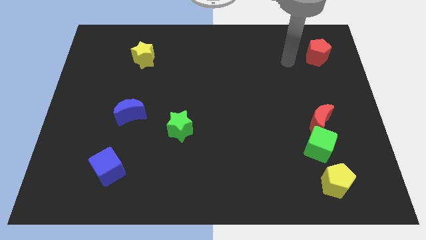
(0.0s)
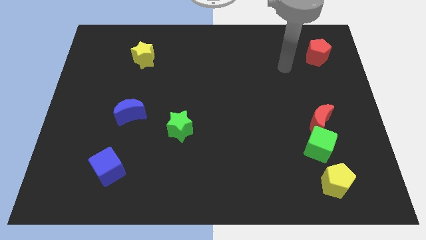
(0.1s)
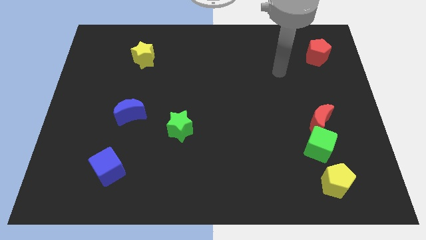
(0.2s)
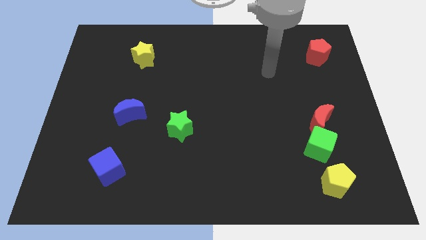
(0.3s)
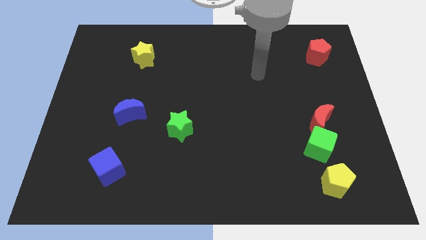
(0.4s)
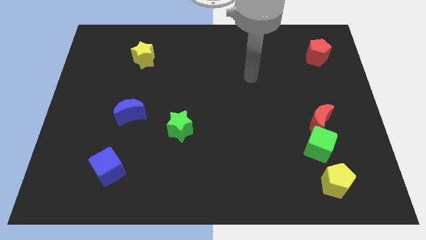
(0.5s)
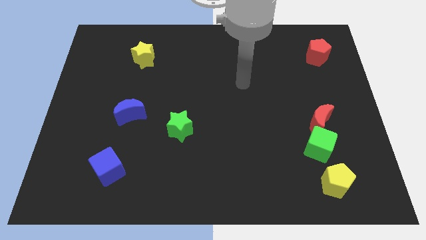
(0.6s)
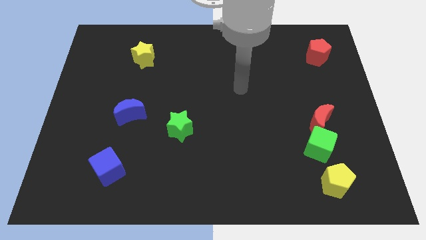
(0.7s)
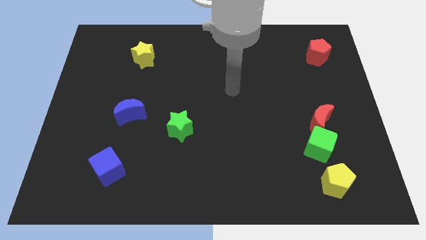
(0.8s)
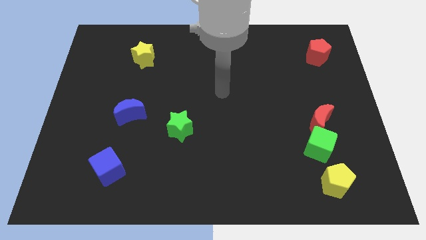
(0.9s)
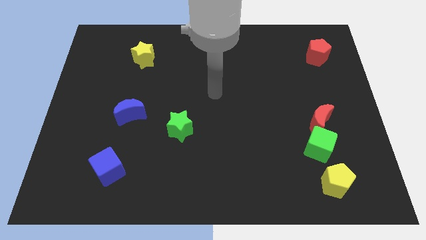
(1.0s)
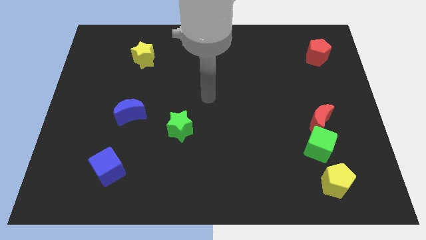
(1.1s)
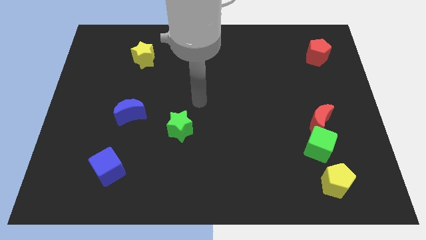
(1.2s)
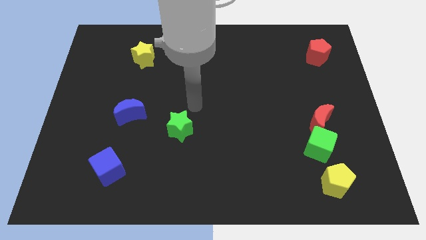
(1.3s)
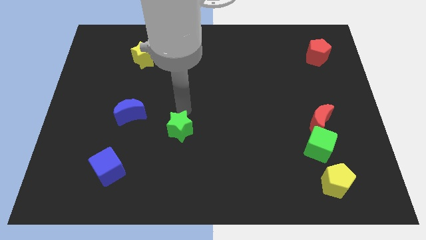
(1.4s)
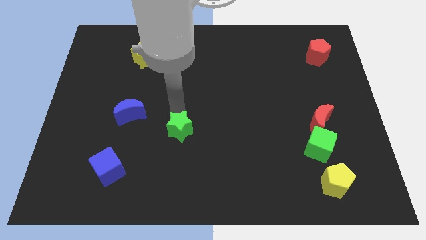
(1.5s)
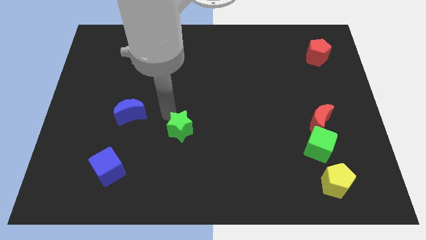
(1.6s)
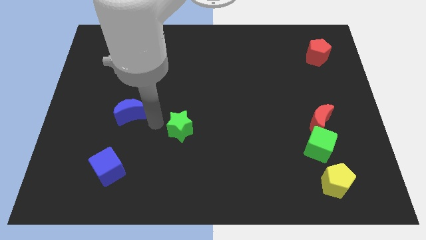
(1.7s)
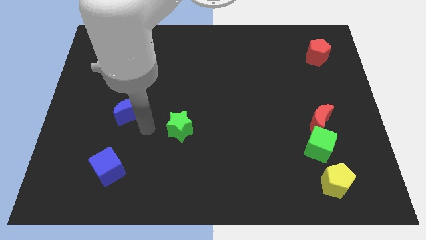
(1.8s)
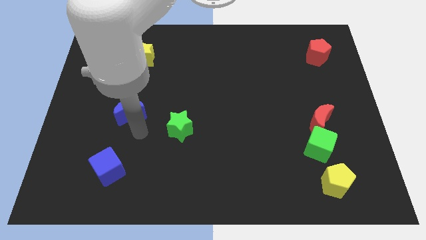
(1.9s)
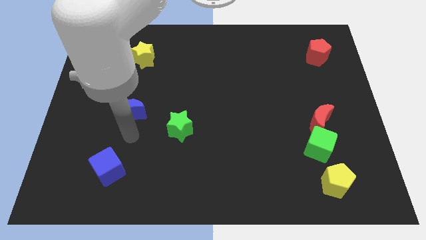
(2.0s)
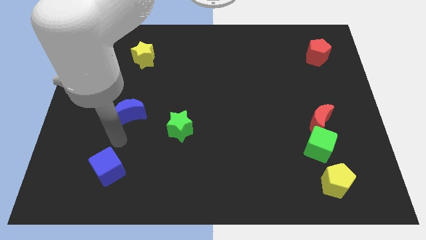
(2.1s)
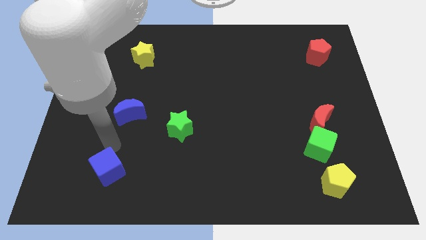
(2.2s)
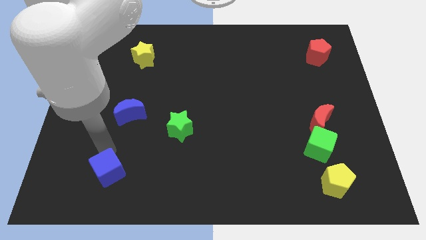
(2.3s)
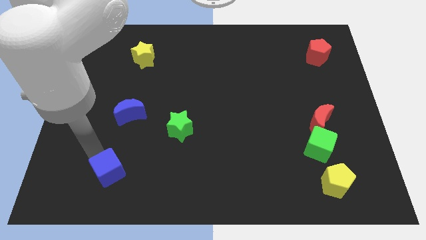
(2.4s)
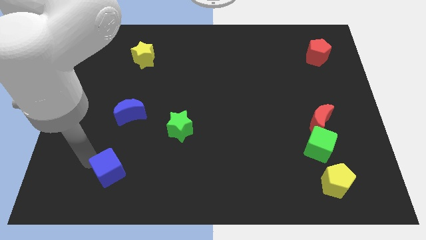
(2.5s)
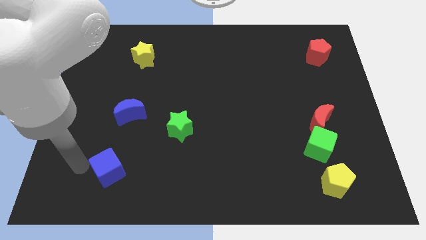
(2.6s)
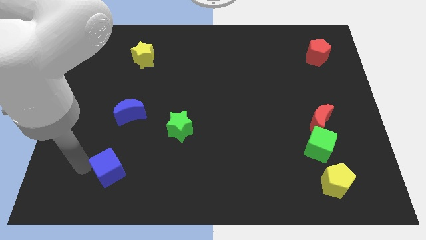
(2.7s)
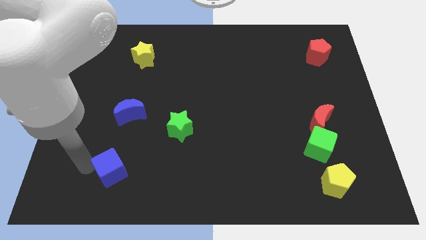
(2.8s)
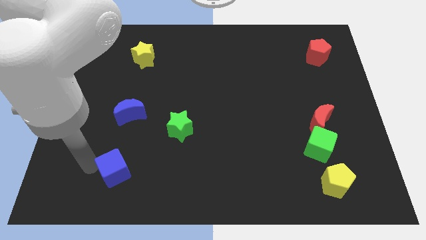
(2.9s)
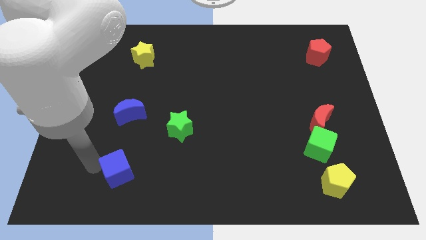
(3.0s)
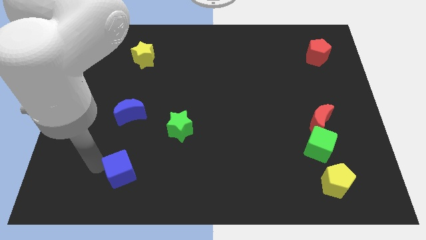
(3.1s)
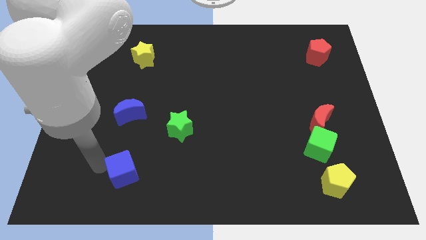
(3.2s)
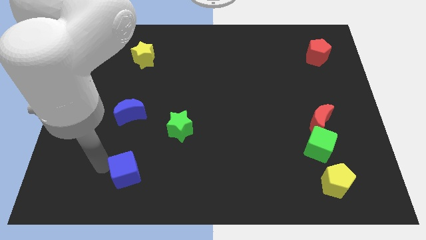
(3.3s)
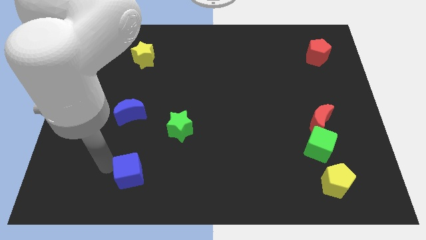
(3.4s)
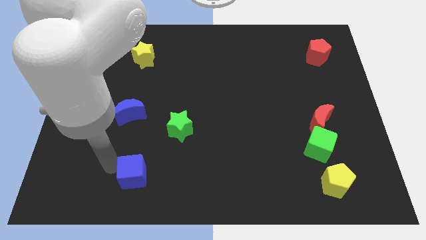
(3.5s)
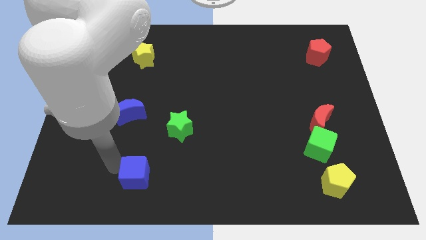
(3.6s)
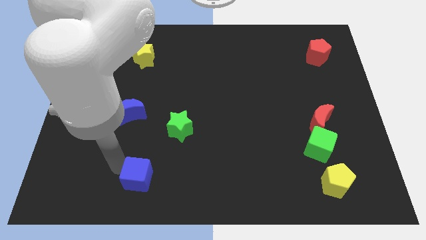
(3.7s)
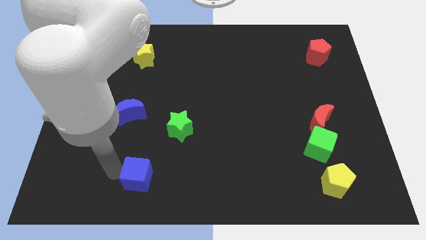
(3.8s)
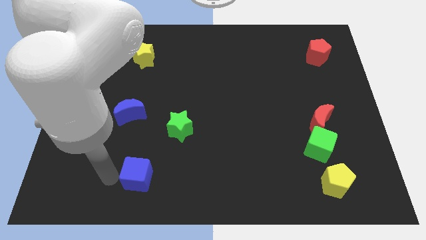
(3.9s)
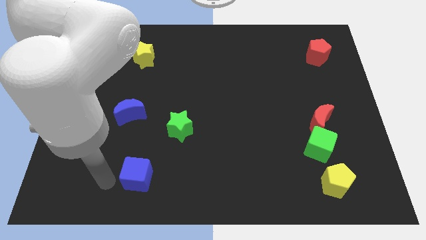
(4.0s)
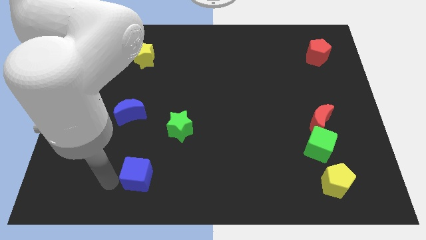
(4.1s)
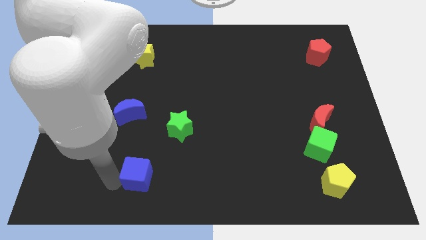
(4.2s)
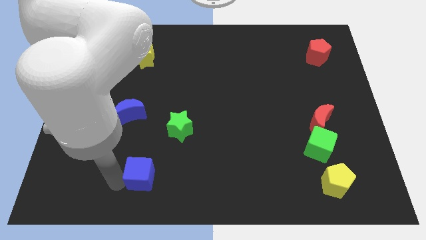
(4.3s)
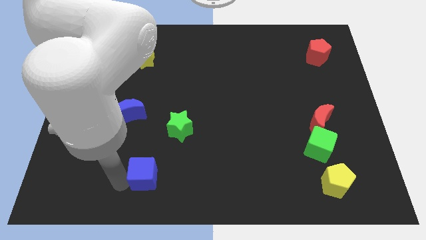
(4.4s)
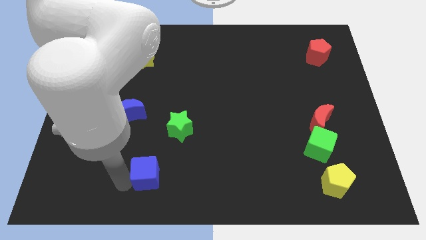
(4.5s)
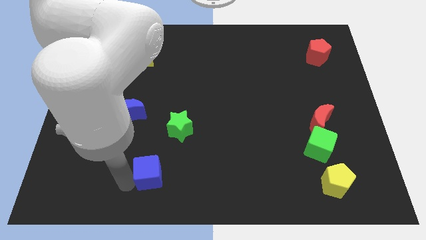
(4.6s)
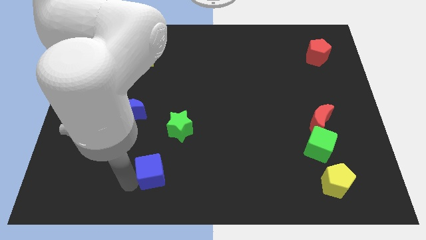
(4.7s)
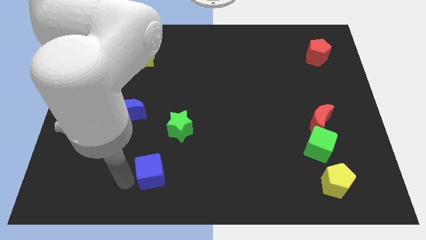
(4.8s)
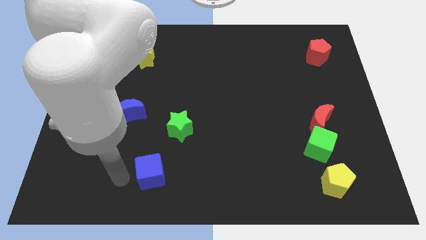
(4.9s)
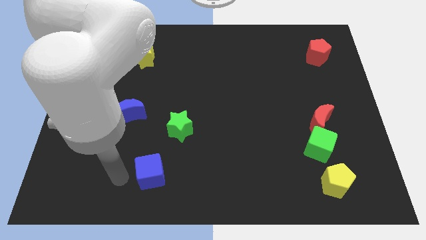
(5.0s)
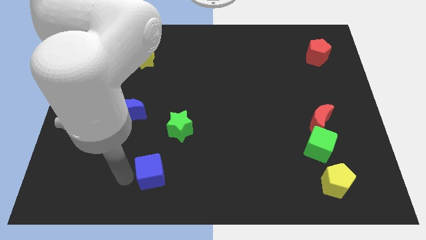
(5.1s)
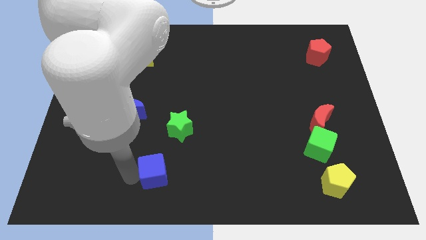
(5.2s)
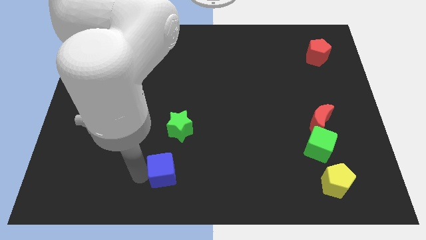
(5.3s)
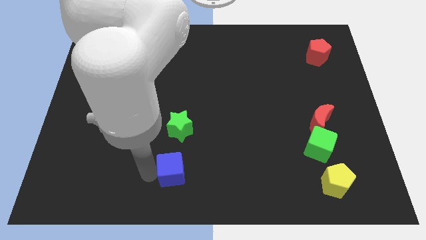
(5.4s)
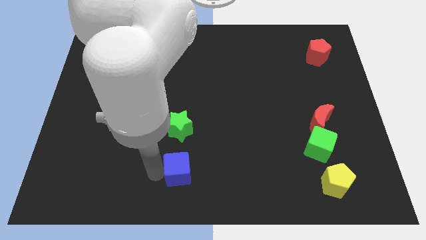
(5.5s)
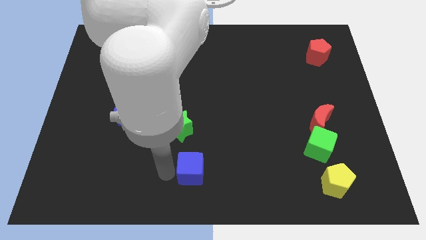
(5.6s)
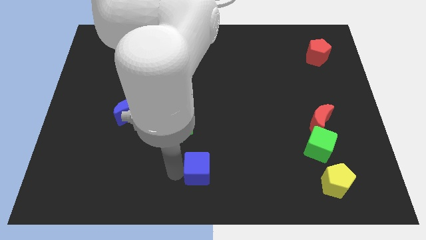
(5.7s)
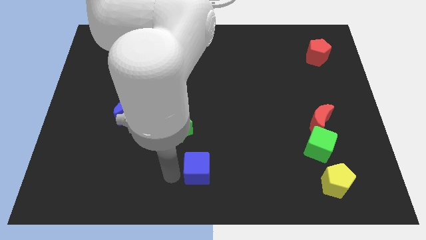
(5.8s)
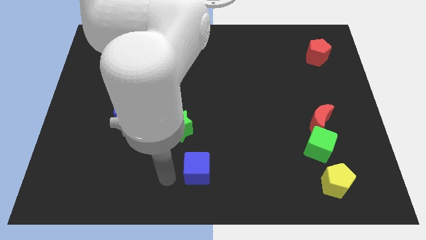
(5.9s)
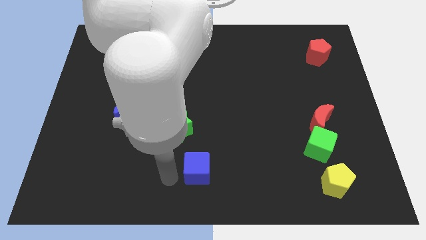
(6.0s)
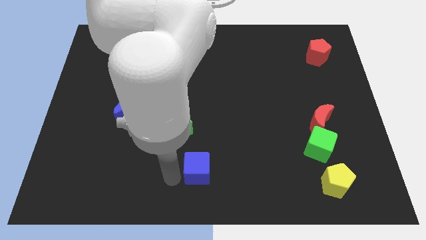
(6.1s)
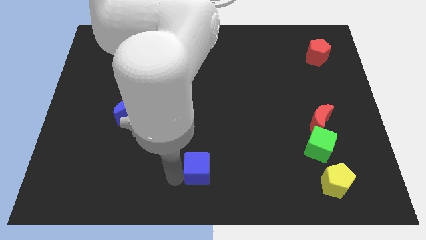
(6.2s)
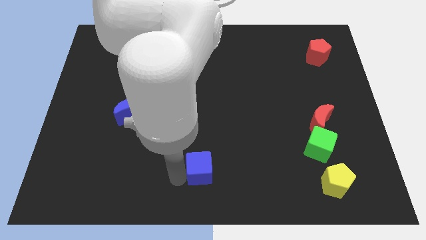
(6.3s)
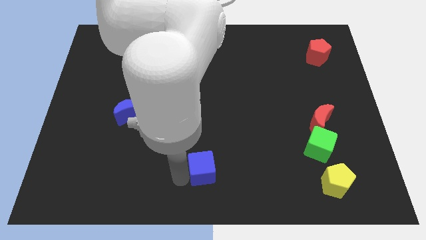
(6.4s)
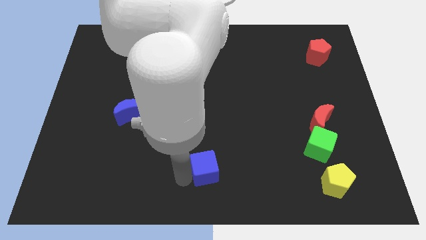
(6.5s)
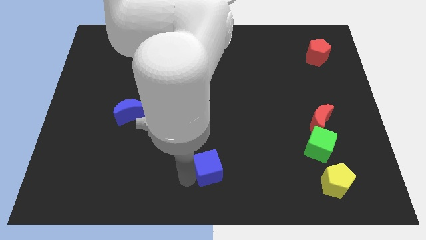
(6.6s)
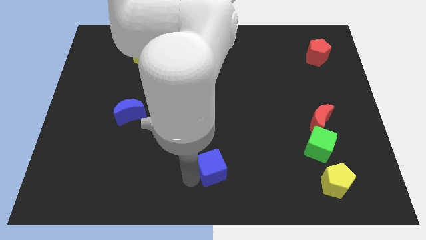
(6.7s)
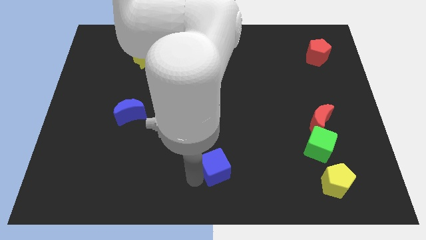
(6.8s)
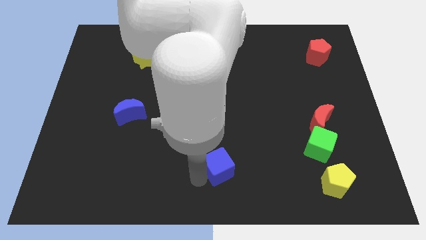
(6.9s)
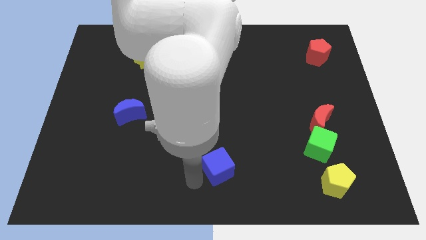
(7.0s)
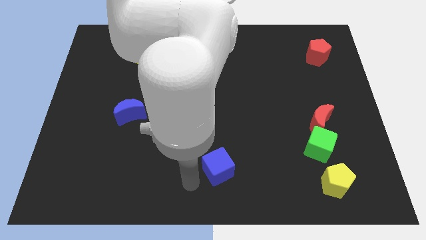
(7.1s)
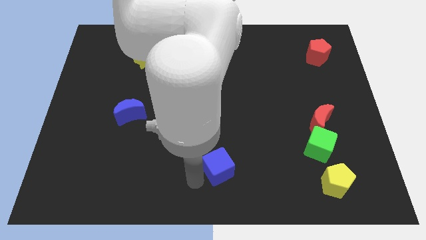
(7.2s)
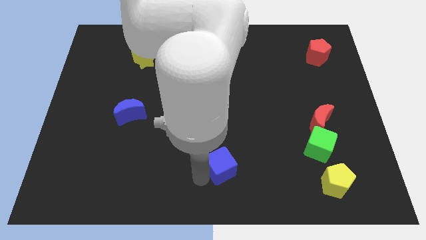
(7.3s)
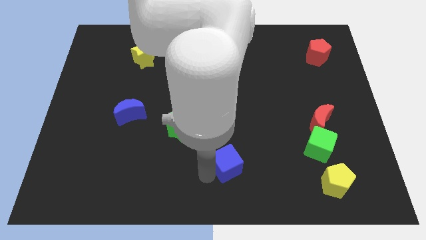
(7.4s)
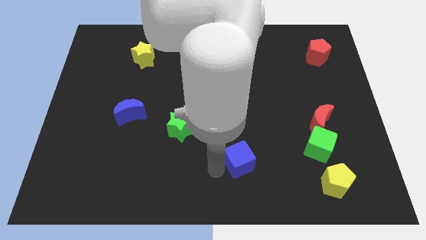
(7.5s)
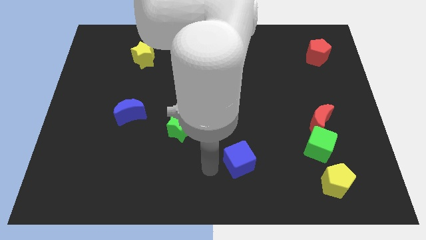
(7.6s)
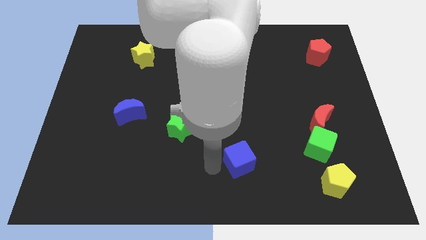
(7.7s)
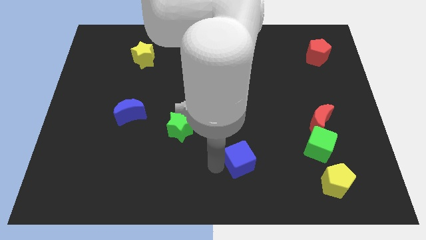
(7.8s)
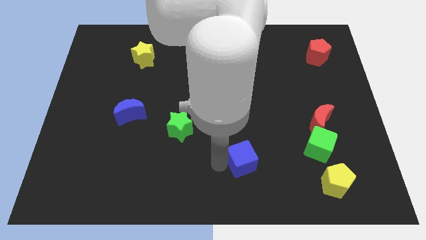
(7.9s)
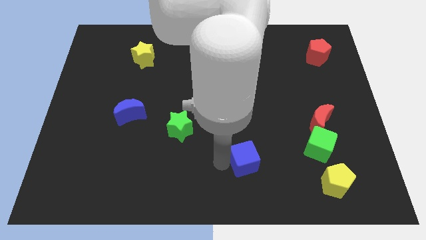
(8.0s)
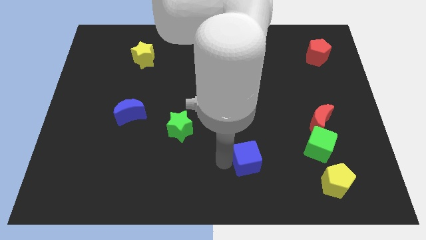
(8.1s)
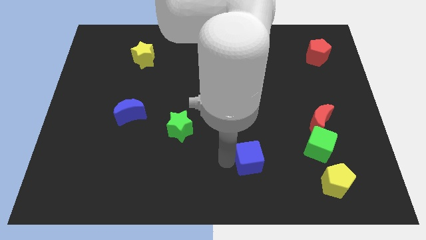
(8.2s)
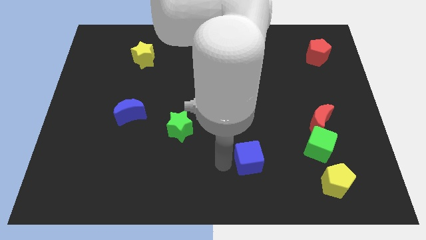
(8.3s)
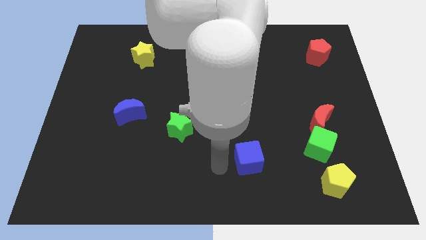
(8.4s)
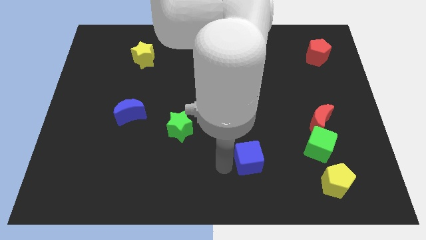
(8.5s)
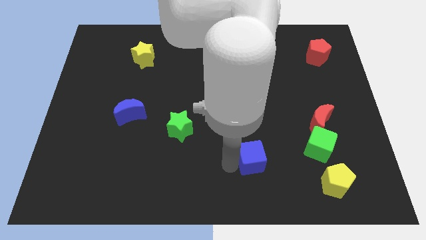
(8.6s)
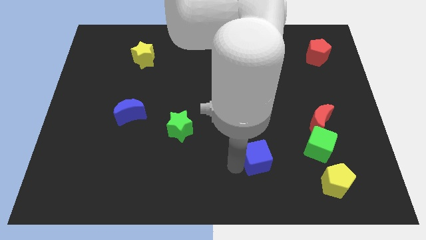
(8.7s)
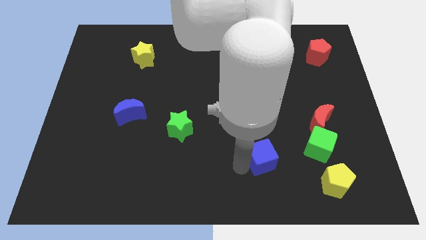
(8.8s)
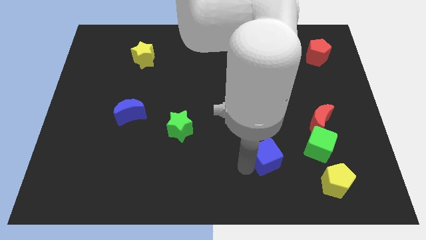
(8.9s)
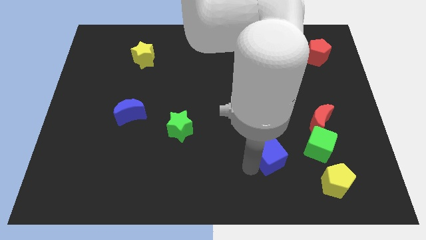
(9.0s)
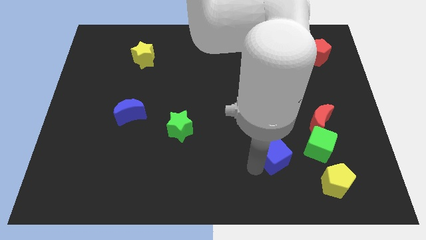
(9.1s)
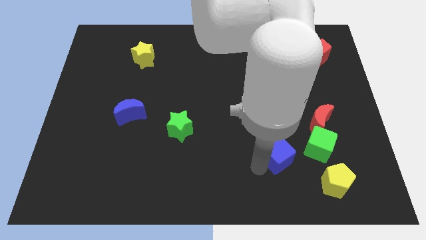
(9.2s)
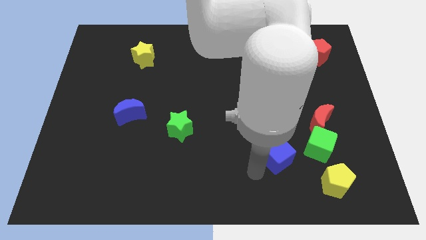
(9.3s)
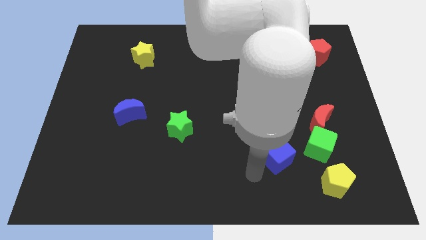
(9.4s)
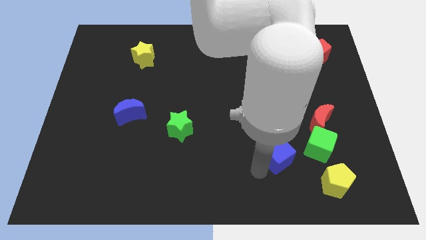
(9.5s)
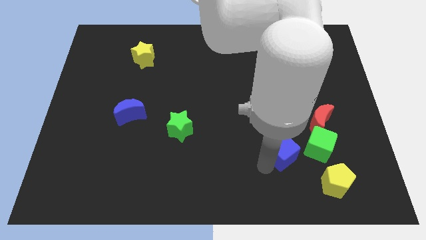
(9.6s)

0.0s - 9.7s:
put the blue cube diagonally down and to the left of the red moon
